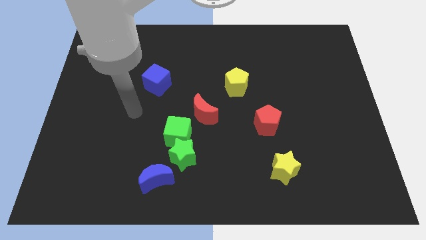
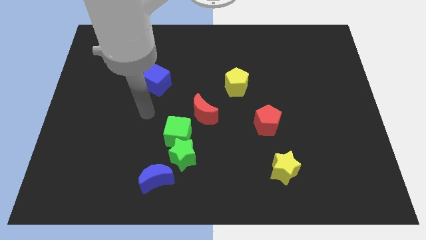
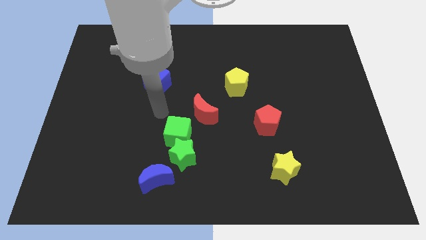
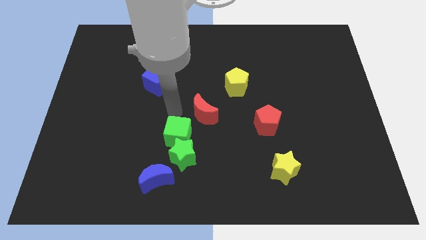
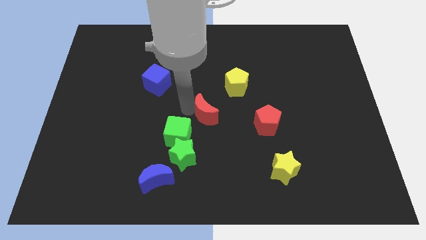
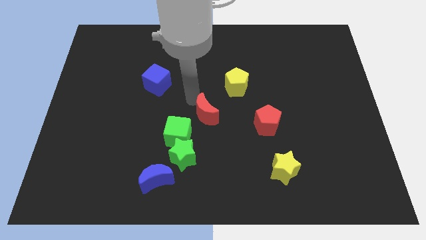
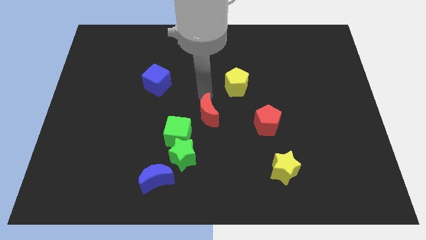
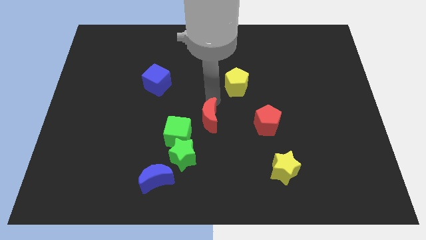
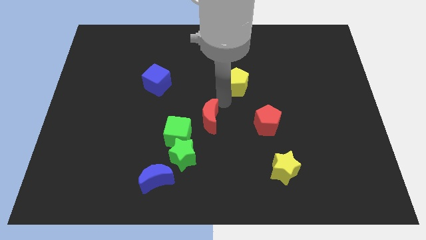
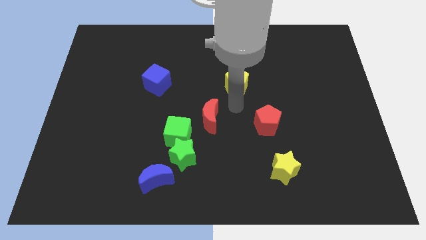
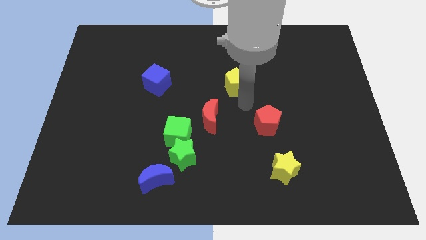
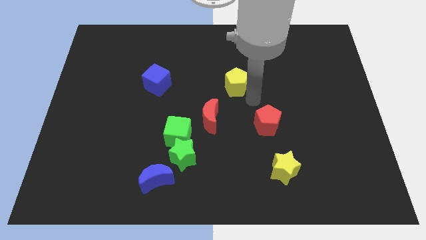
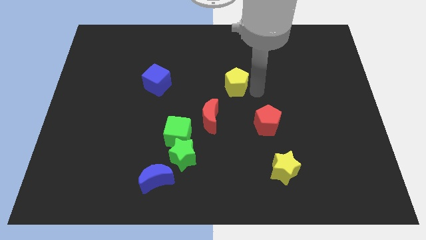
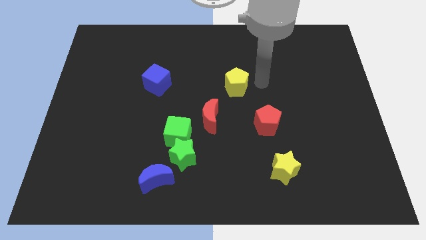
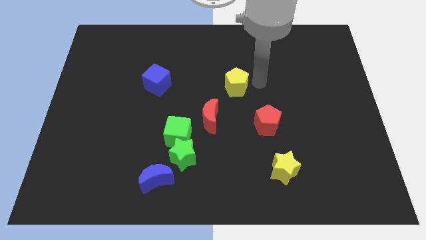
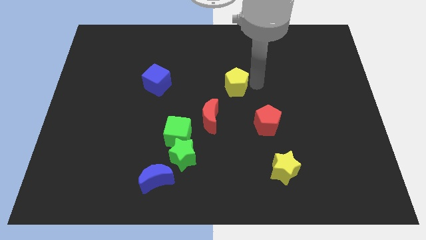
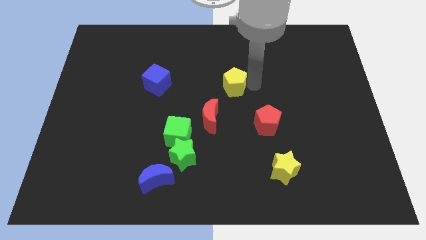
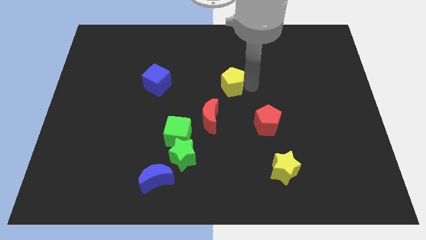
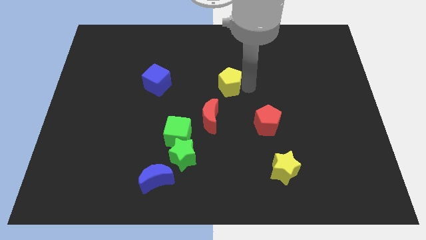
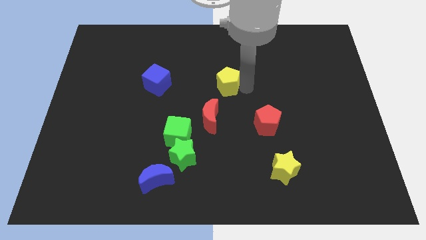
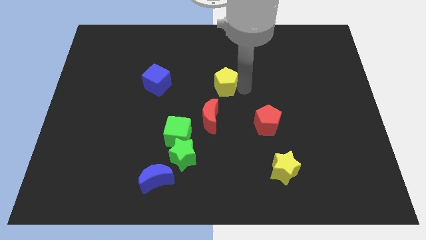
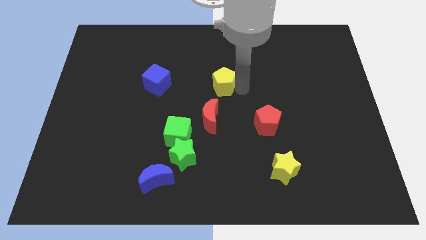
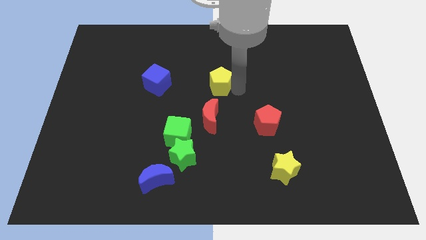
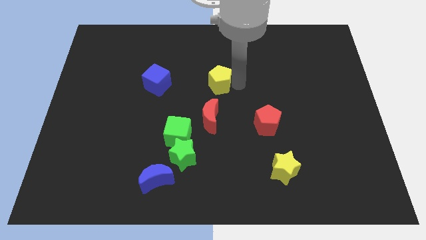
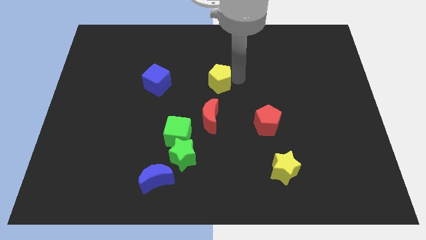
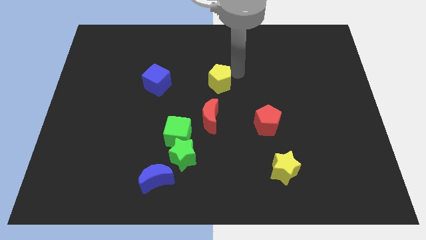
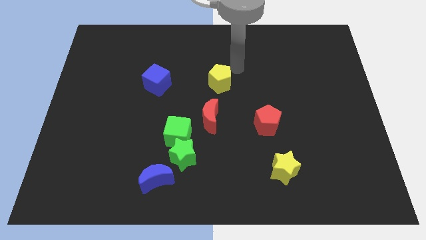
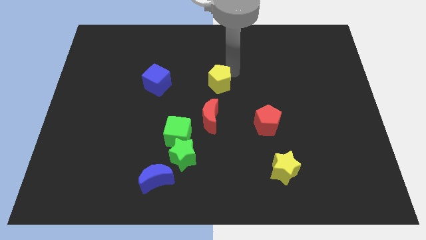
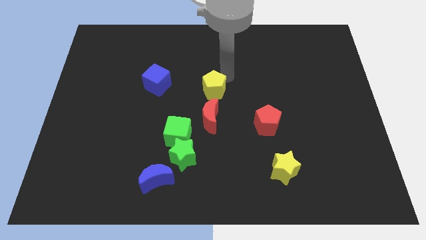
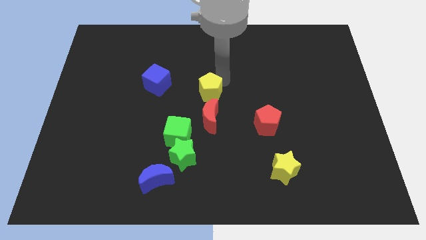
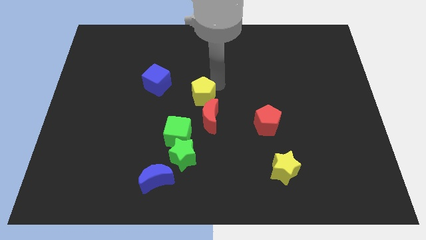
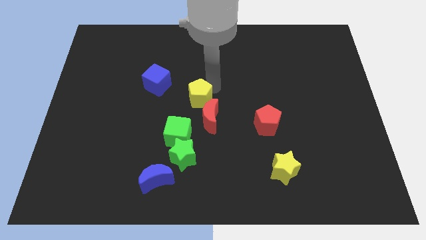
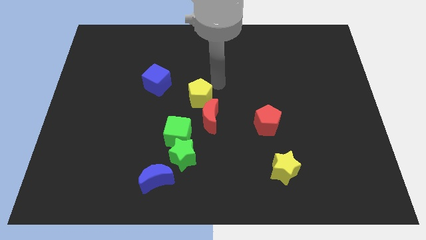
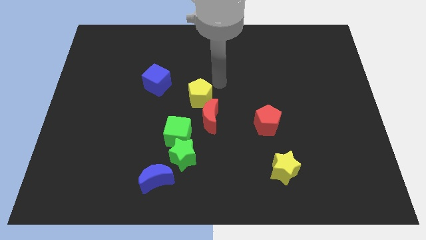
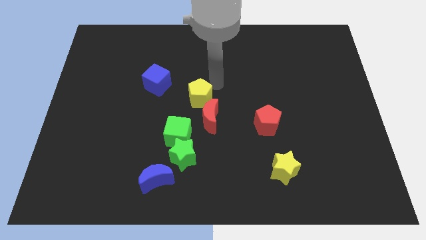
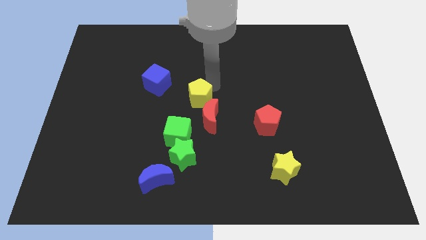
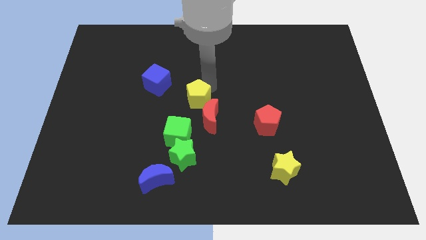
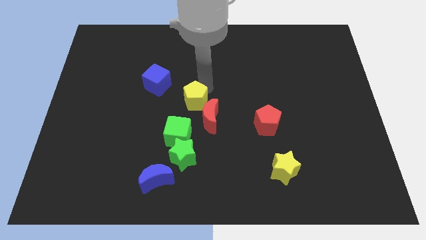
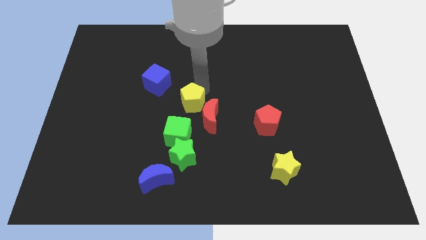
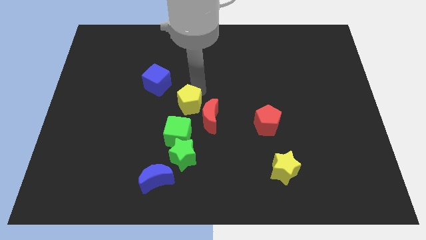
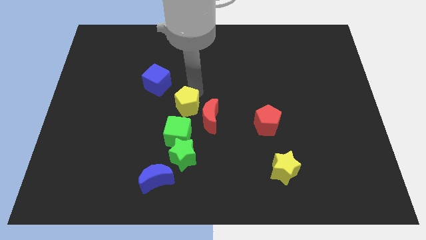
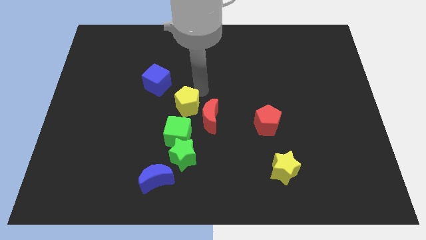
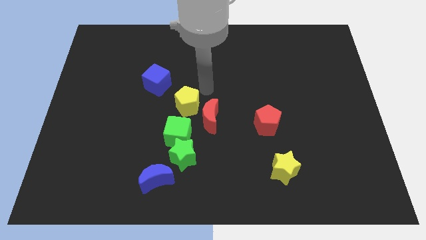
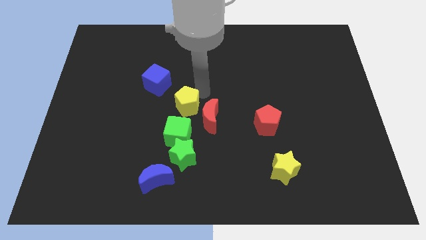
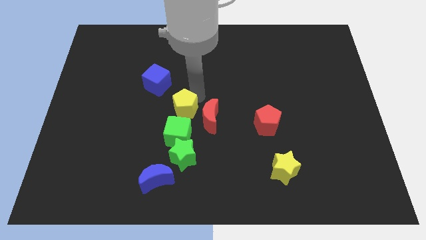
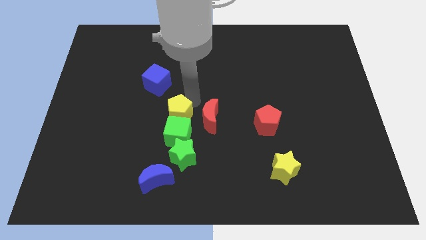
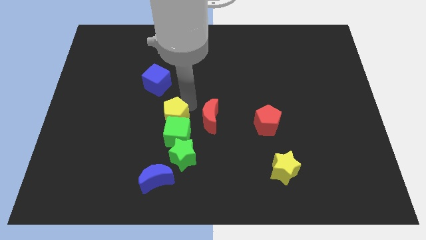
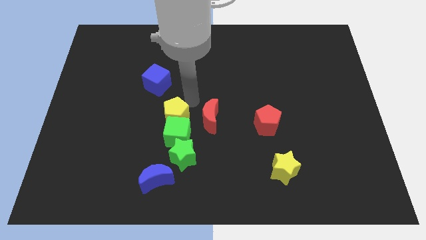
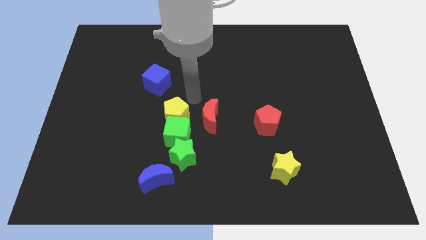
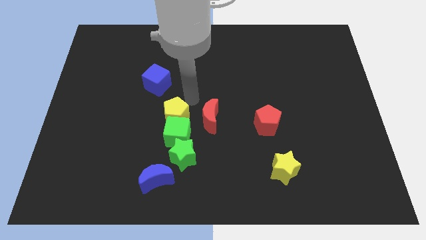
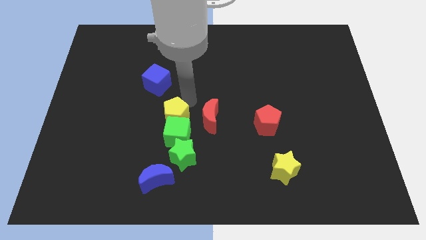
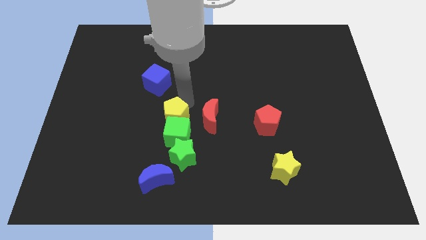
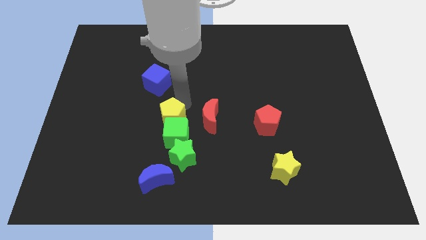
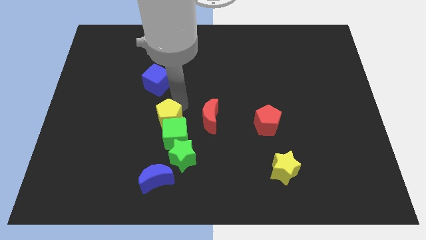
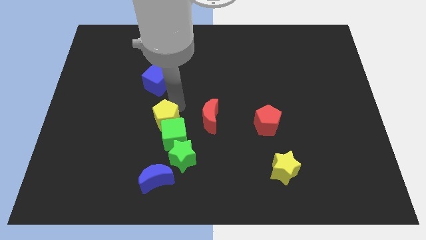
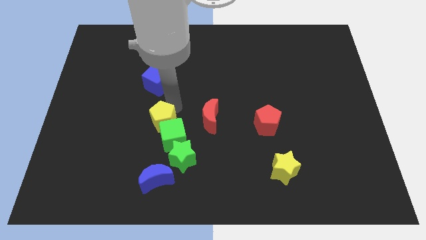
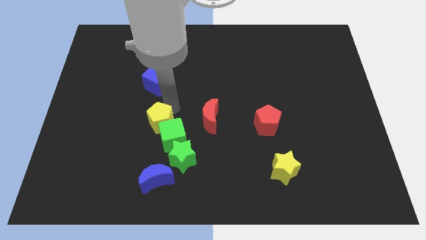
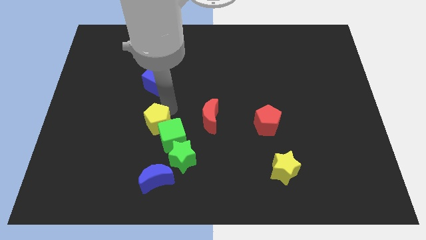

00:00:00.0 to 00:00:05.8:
move the yellow pentagon downwards and left

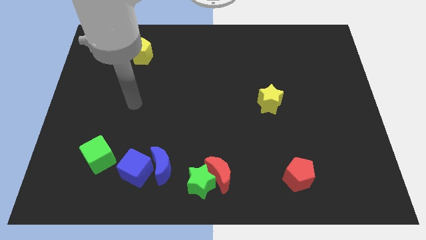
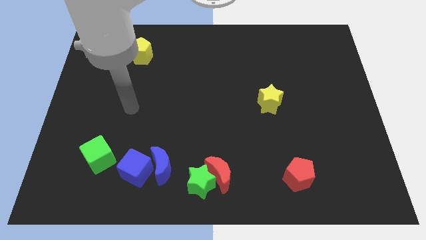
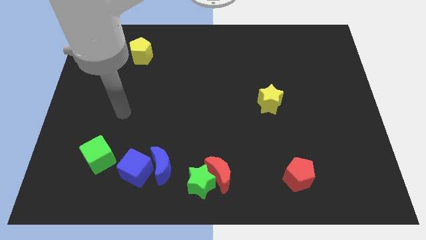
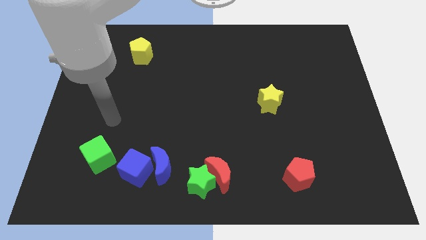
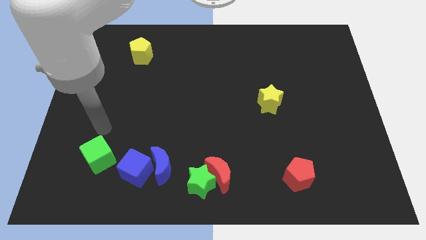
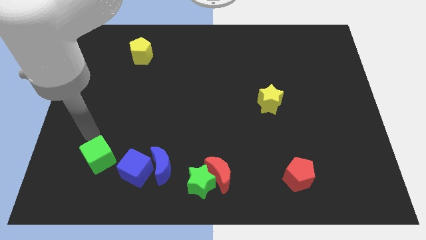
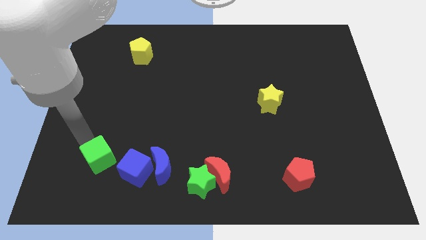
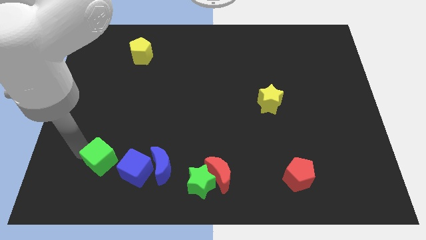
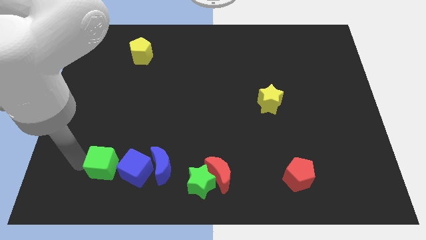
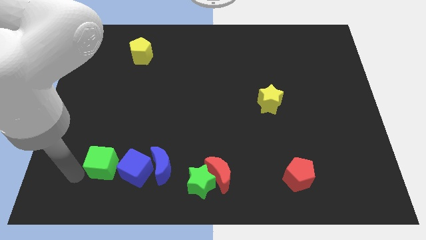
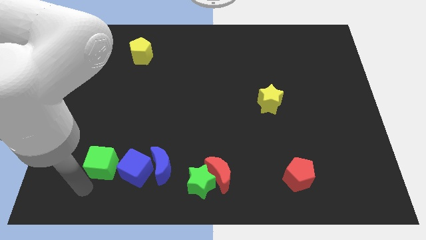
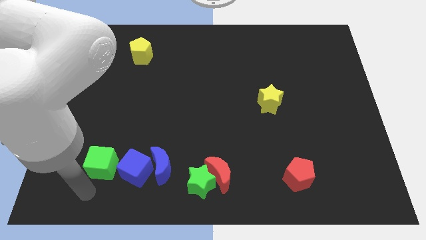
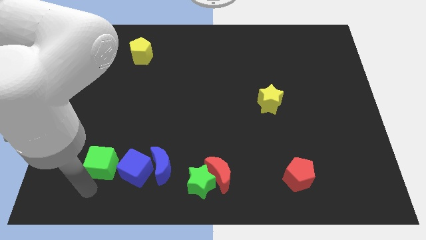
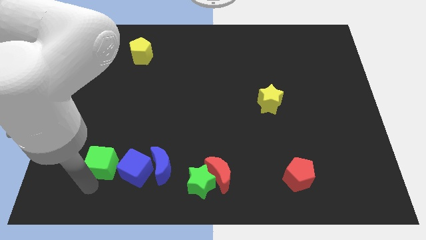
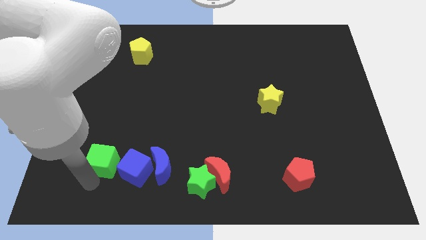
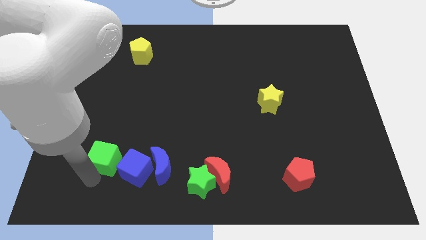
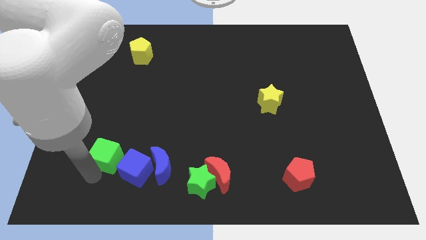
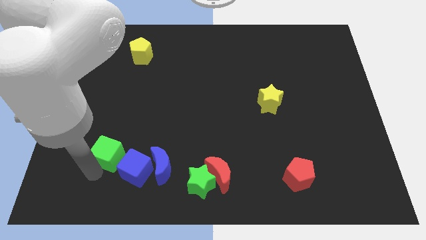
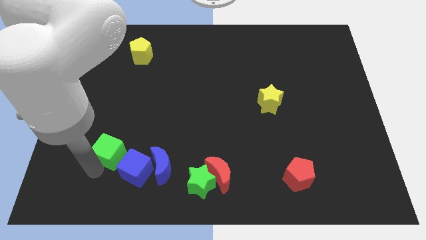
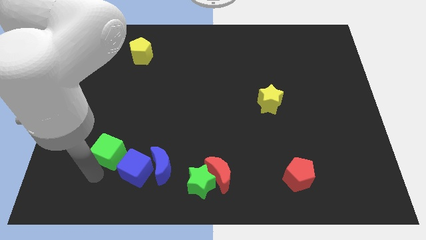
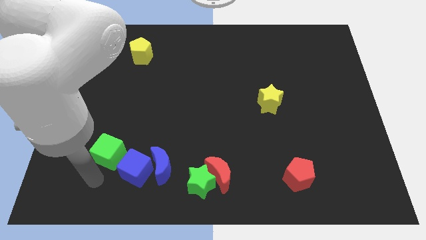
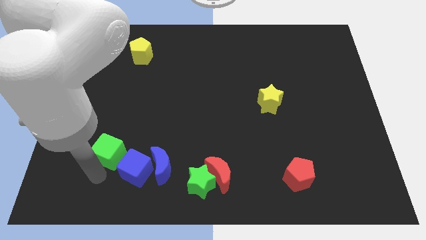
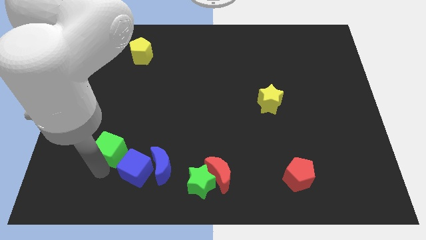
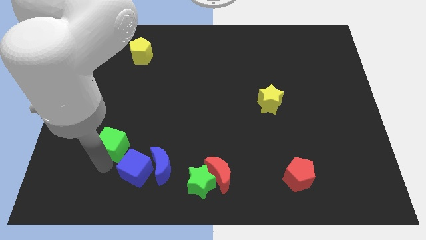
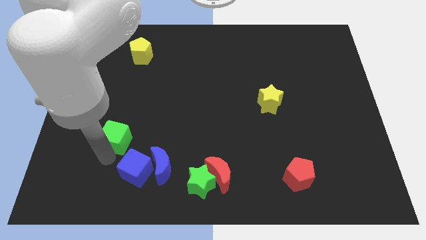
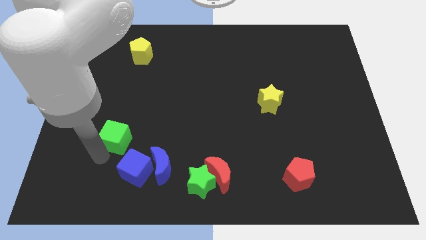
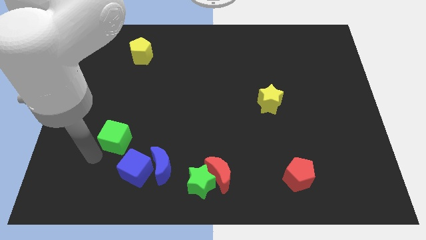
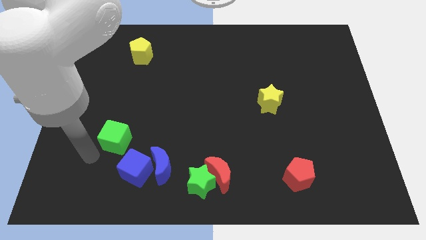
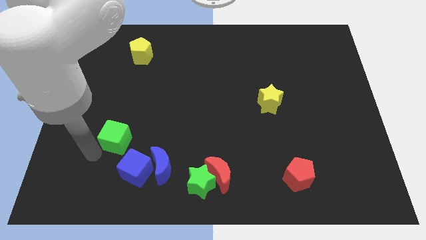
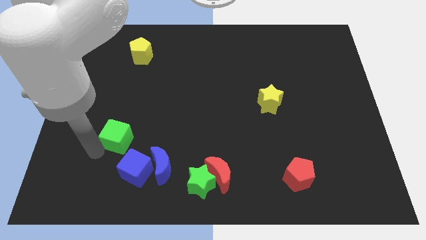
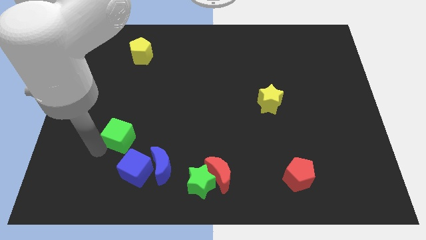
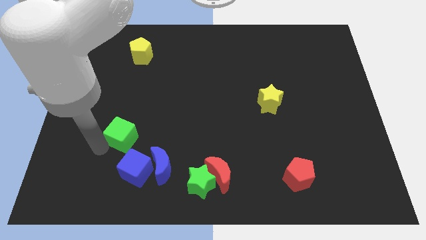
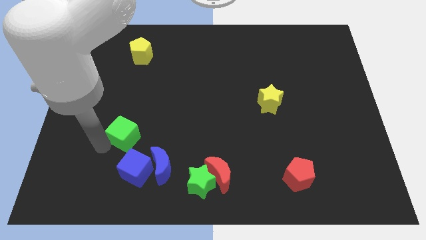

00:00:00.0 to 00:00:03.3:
move the green cube upwards and to the right slightly
